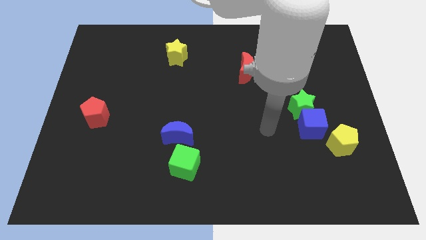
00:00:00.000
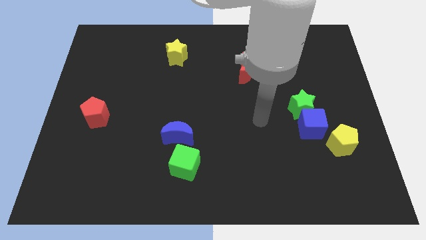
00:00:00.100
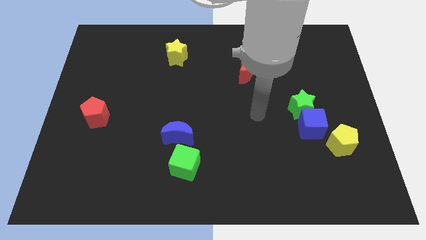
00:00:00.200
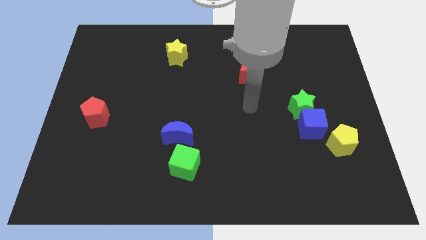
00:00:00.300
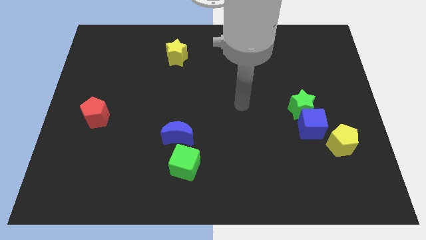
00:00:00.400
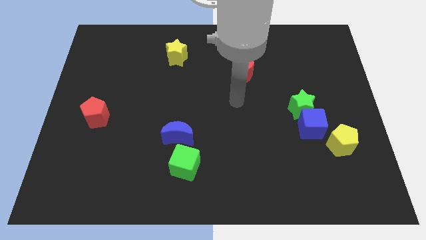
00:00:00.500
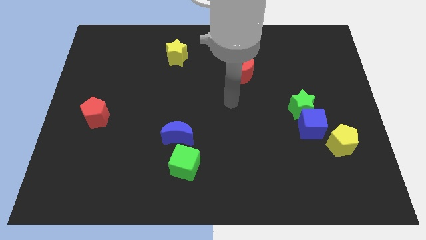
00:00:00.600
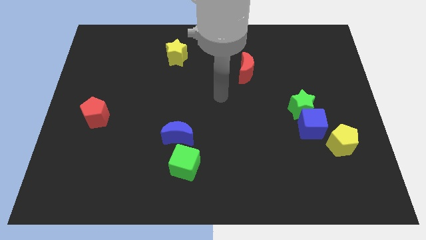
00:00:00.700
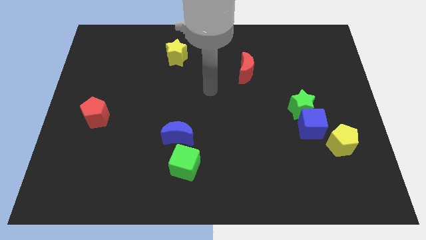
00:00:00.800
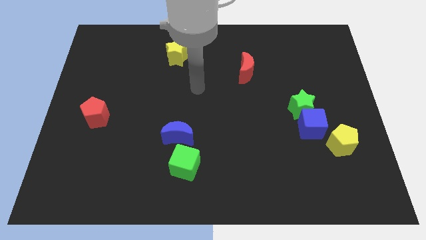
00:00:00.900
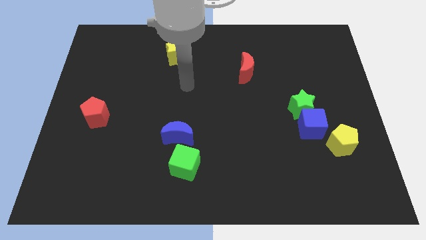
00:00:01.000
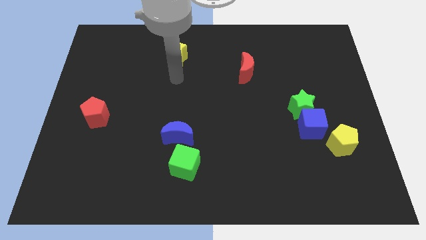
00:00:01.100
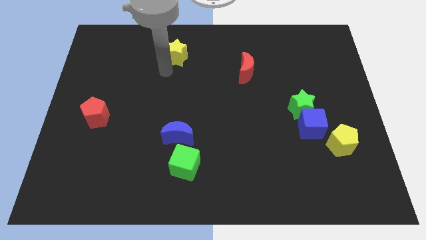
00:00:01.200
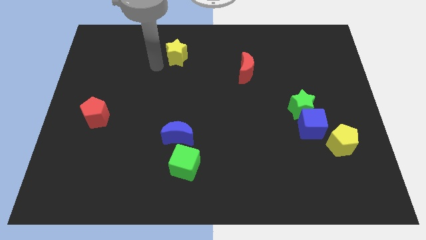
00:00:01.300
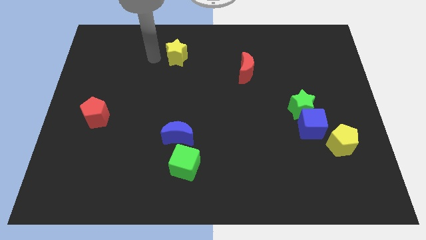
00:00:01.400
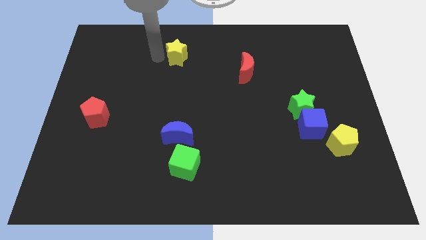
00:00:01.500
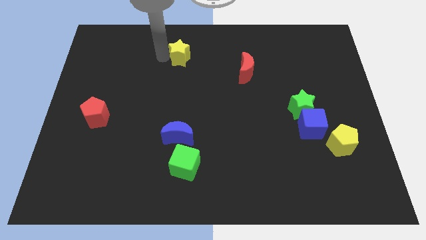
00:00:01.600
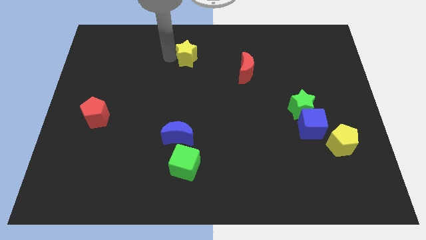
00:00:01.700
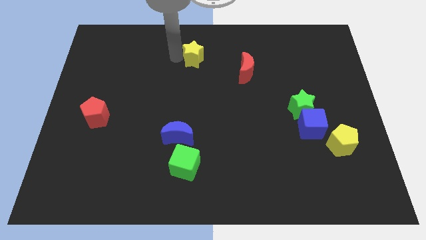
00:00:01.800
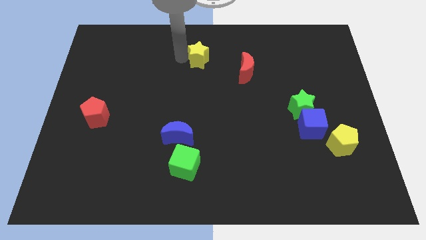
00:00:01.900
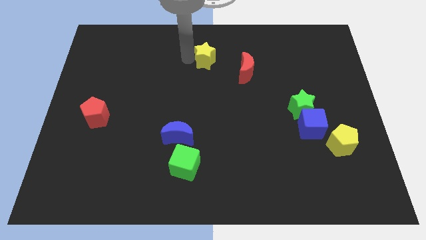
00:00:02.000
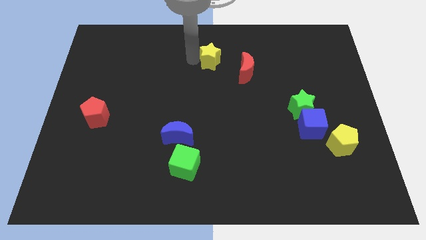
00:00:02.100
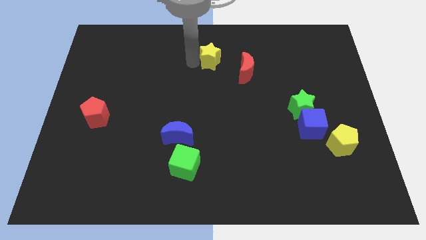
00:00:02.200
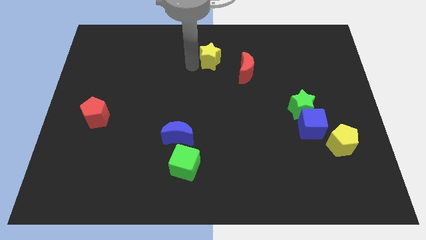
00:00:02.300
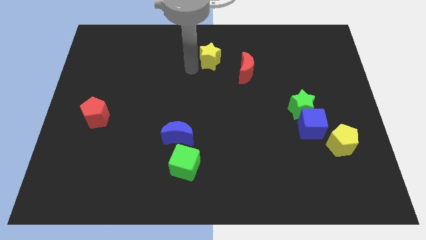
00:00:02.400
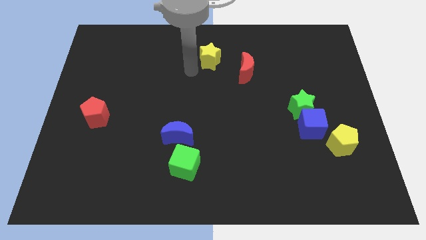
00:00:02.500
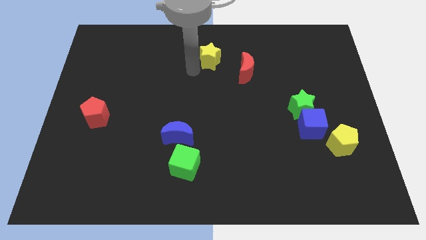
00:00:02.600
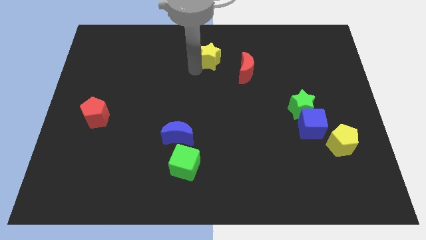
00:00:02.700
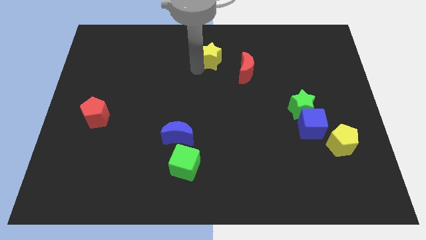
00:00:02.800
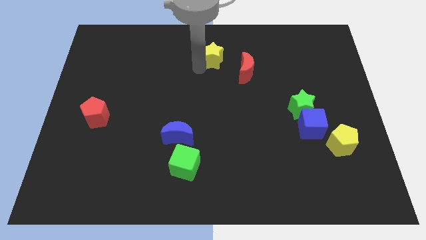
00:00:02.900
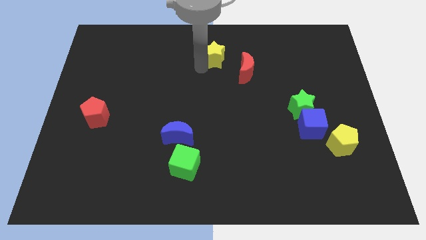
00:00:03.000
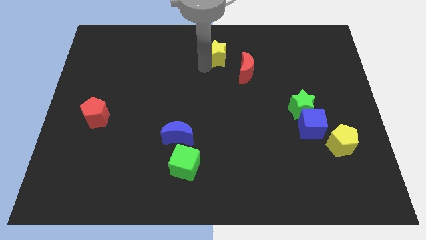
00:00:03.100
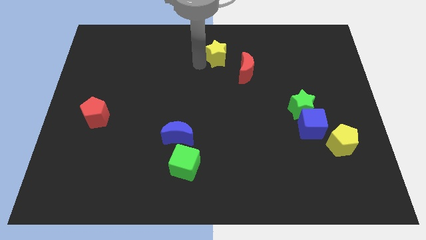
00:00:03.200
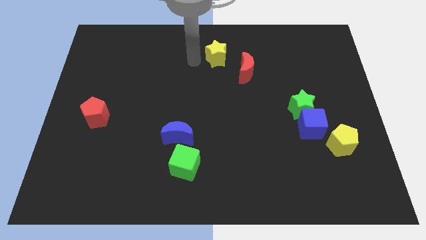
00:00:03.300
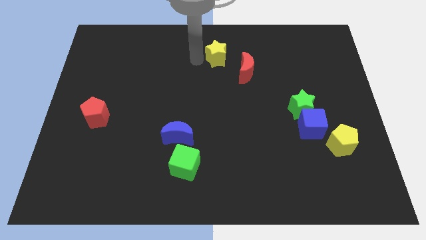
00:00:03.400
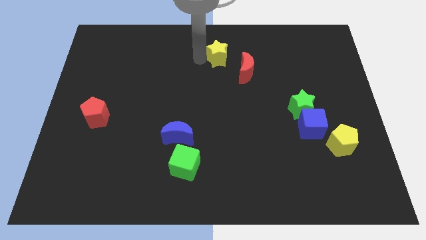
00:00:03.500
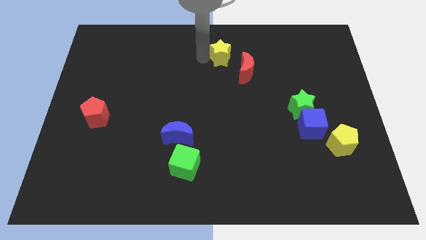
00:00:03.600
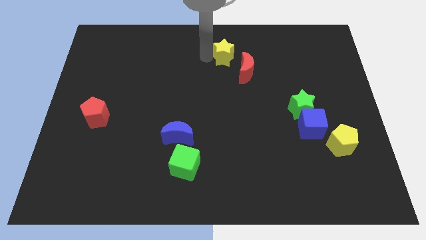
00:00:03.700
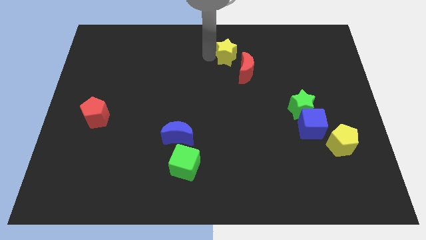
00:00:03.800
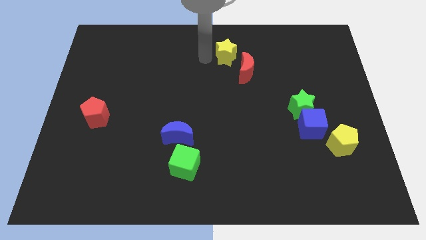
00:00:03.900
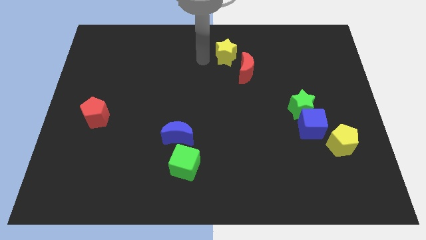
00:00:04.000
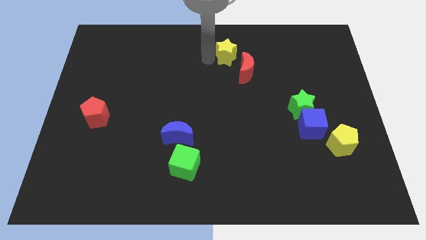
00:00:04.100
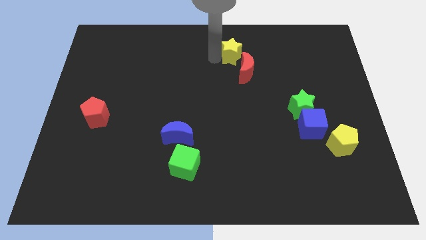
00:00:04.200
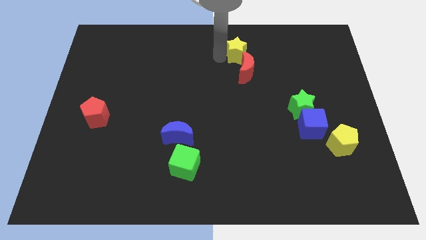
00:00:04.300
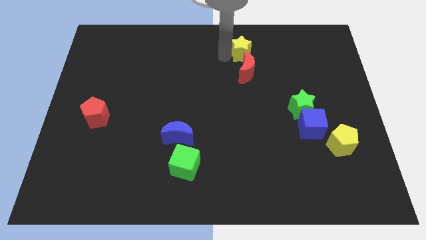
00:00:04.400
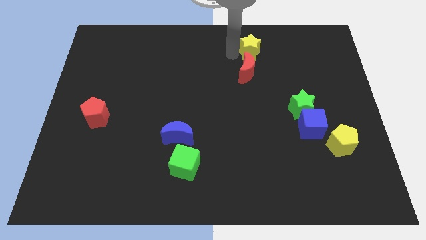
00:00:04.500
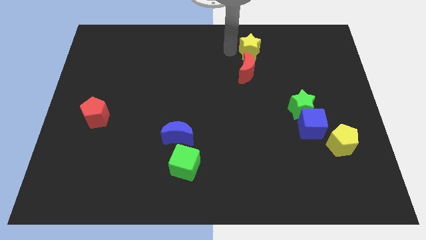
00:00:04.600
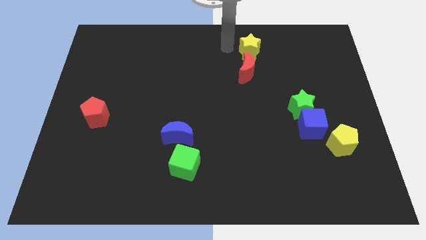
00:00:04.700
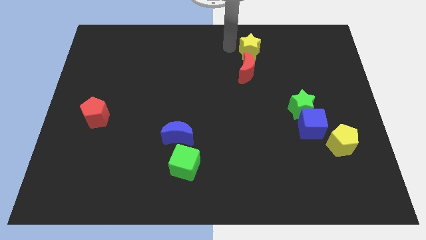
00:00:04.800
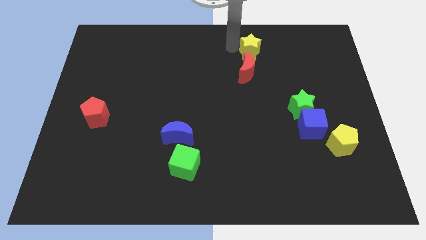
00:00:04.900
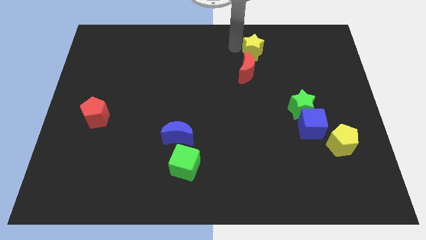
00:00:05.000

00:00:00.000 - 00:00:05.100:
push the yellow star to the right

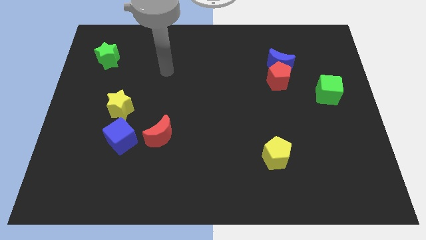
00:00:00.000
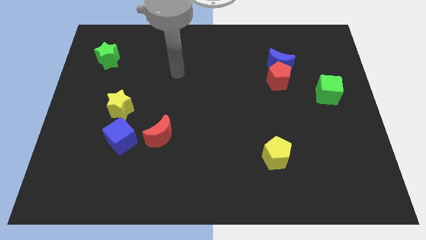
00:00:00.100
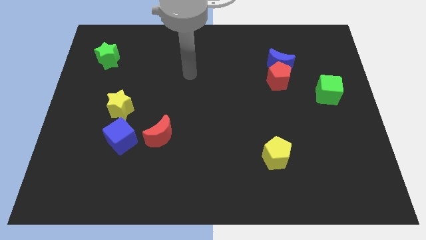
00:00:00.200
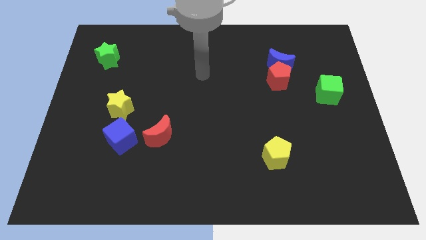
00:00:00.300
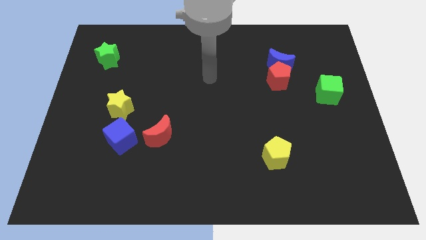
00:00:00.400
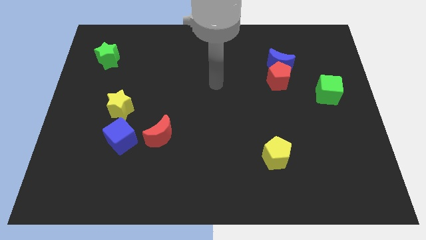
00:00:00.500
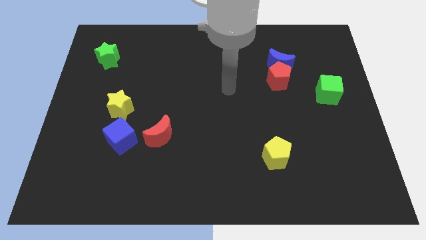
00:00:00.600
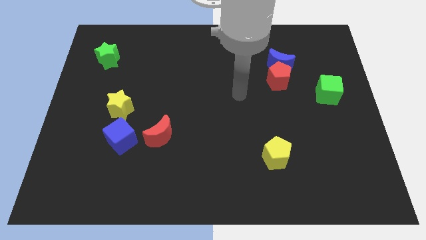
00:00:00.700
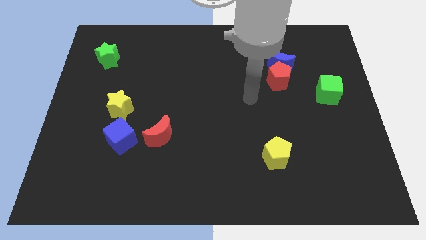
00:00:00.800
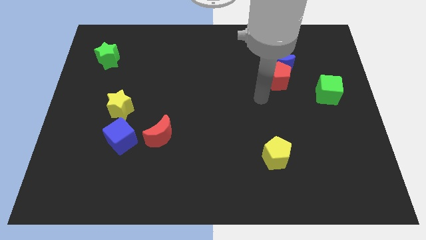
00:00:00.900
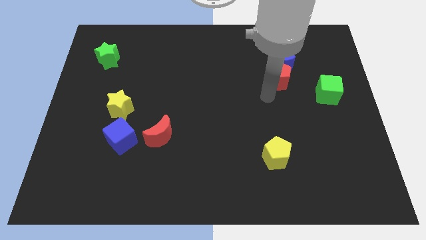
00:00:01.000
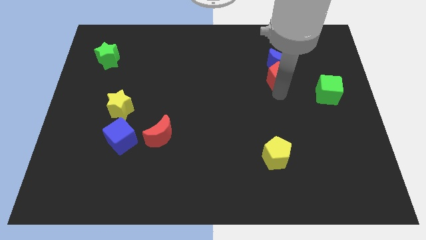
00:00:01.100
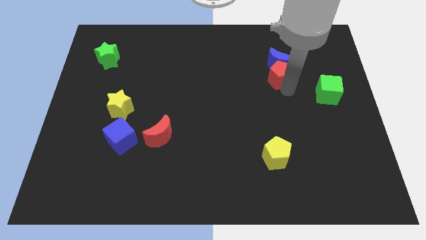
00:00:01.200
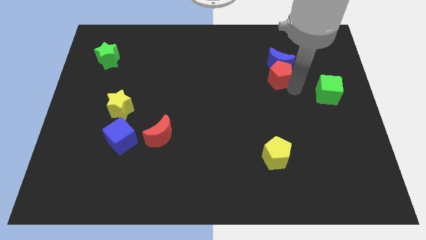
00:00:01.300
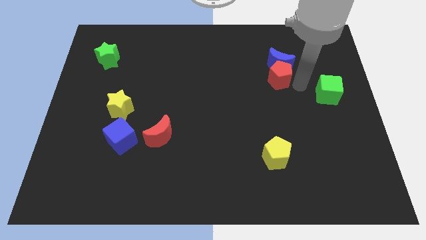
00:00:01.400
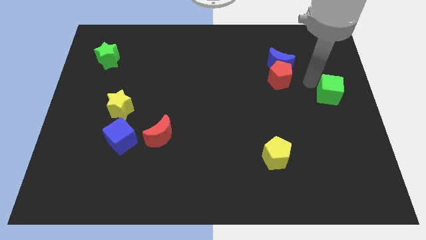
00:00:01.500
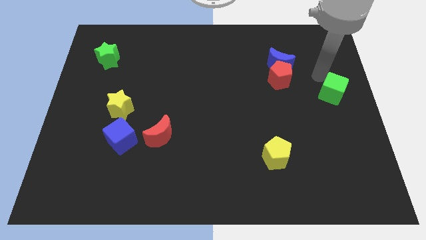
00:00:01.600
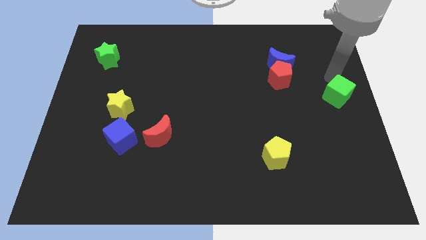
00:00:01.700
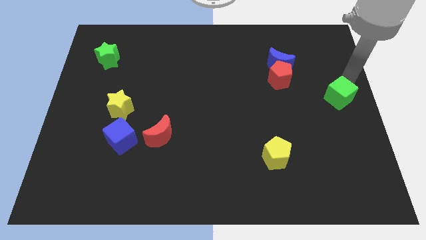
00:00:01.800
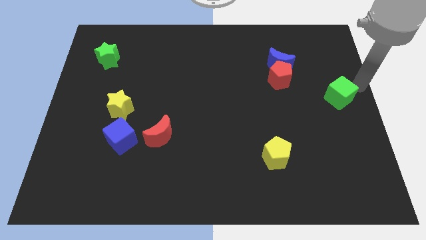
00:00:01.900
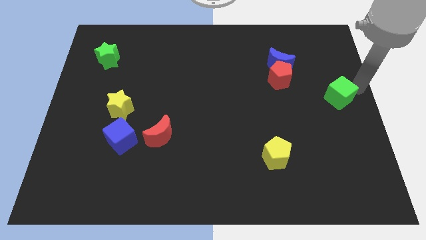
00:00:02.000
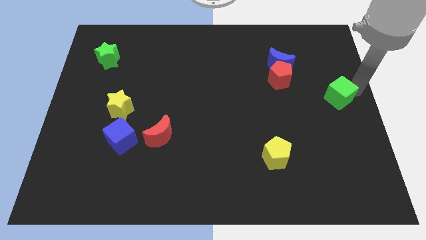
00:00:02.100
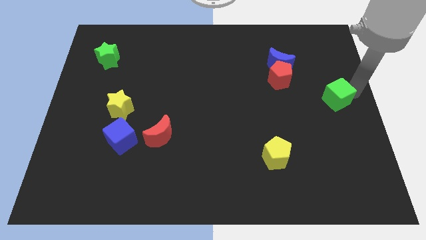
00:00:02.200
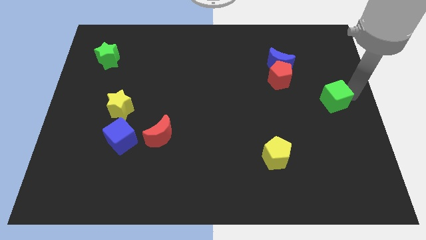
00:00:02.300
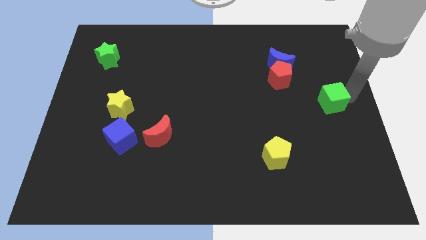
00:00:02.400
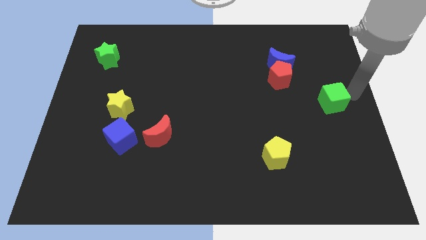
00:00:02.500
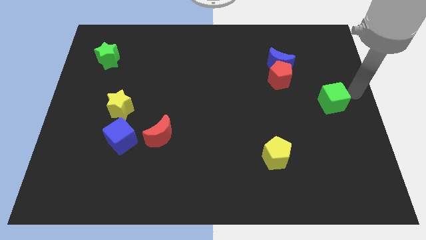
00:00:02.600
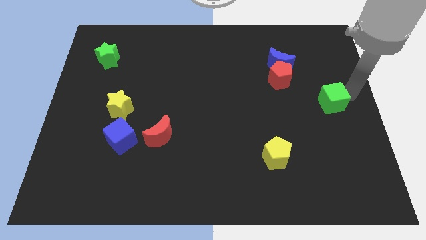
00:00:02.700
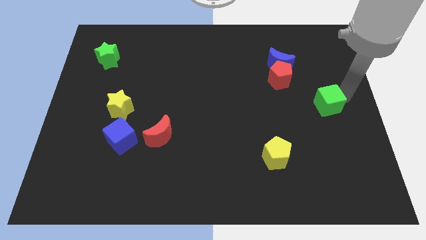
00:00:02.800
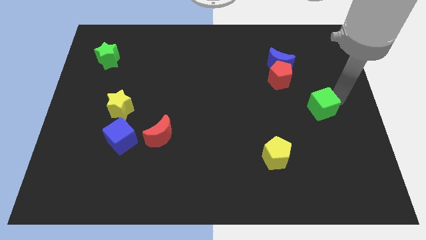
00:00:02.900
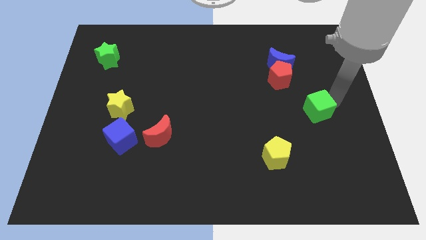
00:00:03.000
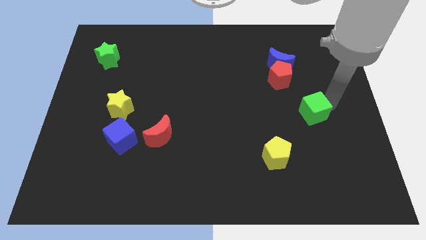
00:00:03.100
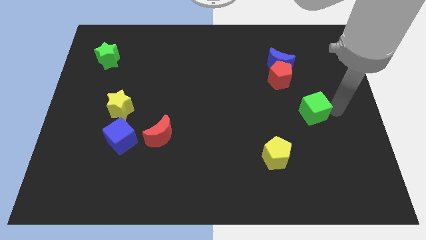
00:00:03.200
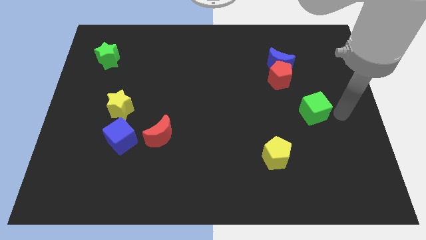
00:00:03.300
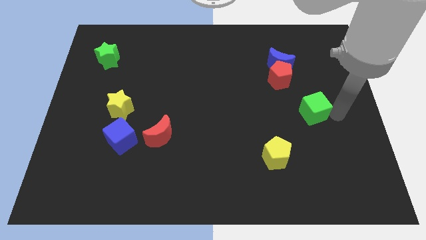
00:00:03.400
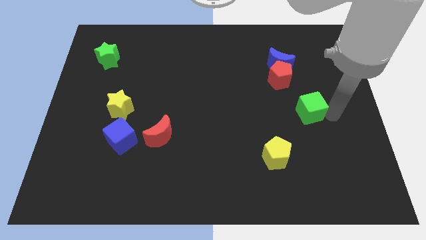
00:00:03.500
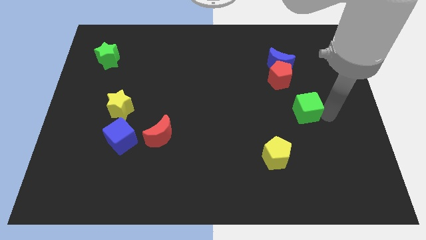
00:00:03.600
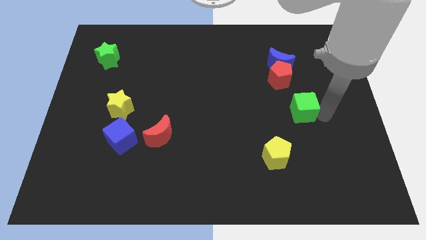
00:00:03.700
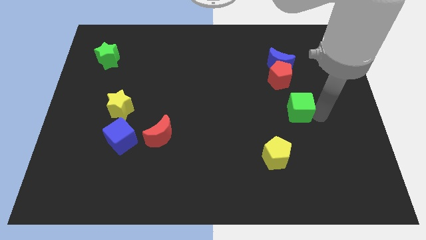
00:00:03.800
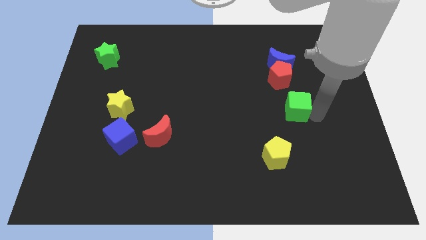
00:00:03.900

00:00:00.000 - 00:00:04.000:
slide the green cube left slightly
